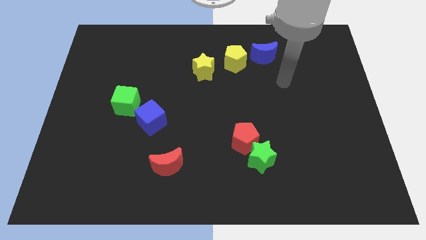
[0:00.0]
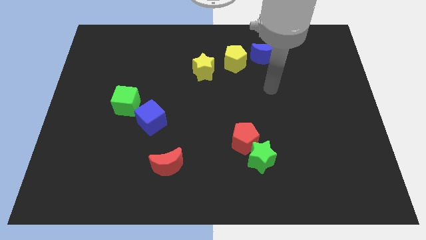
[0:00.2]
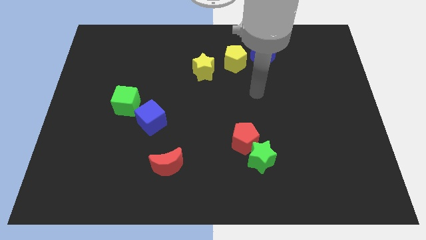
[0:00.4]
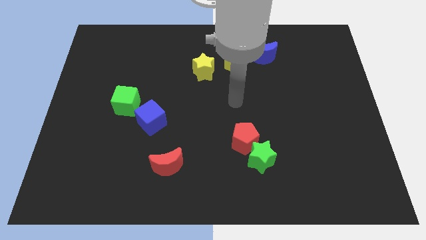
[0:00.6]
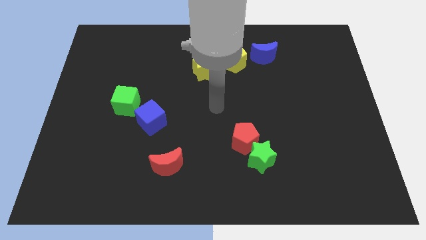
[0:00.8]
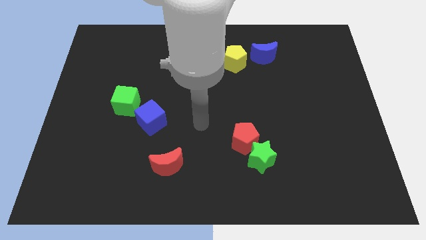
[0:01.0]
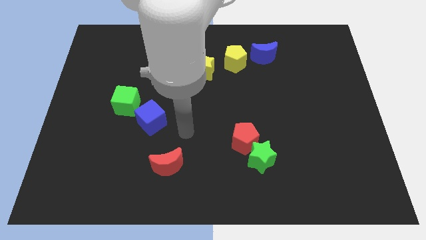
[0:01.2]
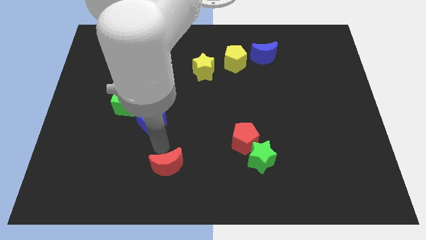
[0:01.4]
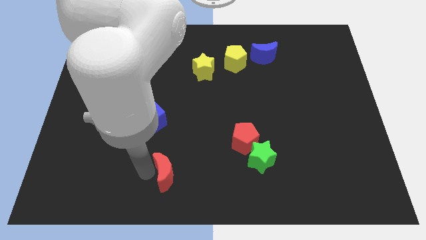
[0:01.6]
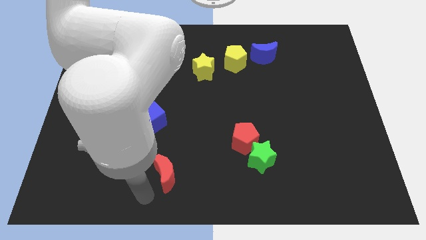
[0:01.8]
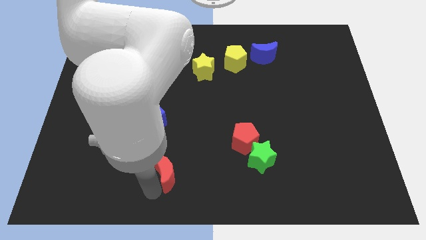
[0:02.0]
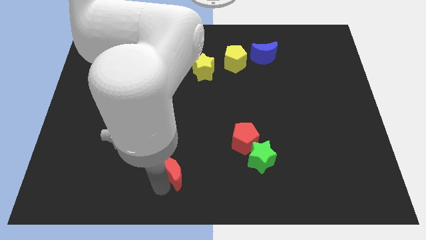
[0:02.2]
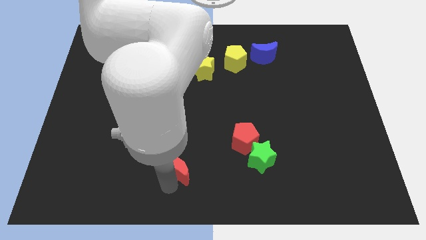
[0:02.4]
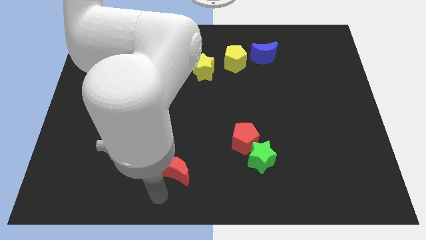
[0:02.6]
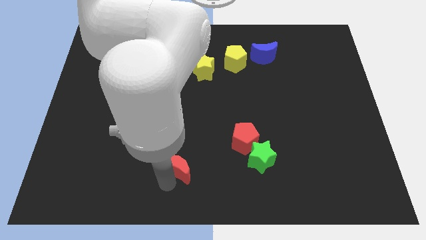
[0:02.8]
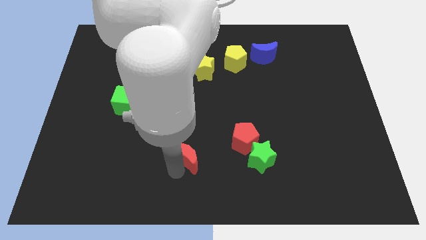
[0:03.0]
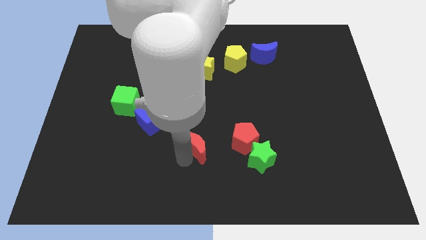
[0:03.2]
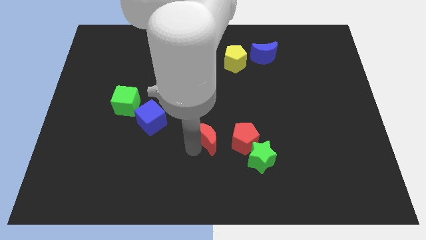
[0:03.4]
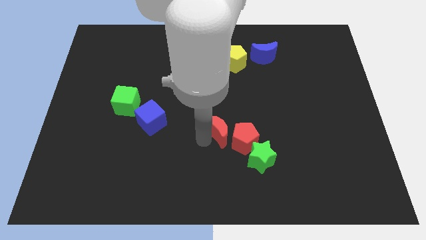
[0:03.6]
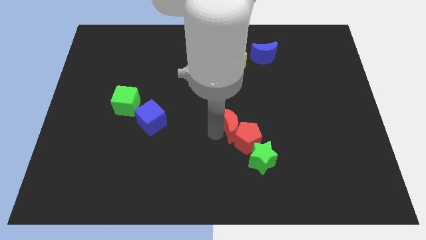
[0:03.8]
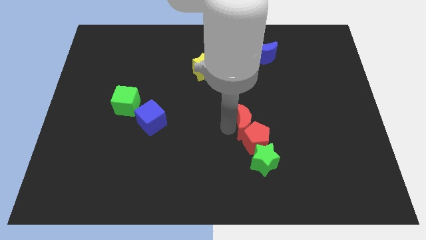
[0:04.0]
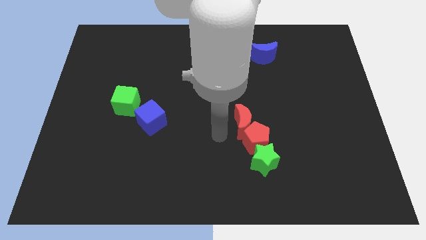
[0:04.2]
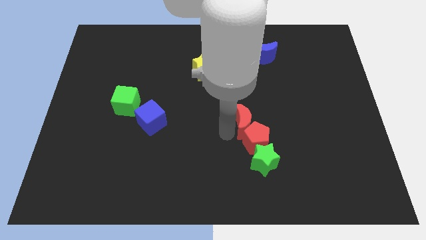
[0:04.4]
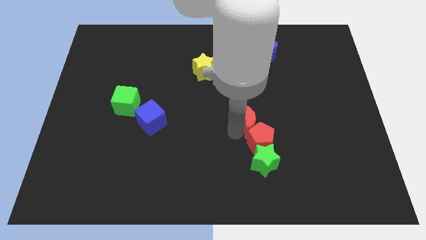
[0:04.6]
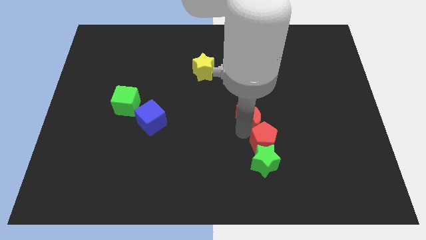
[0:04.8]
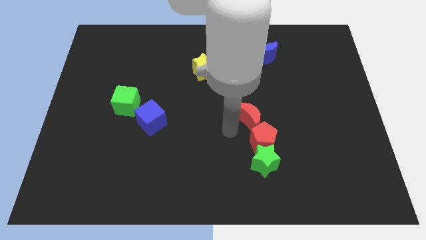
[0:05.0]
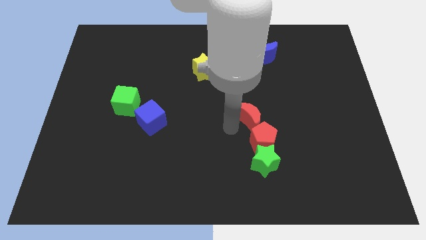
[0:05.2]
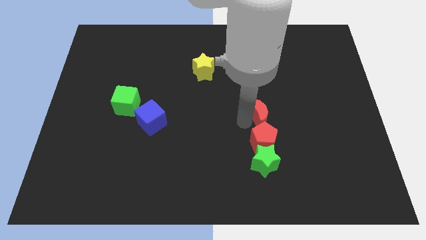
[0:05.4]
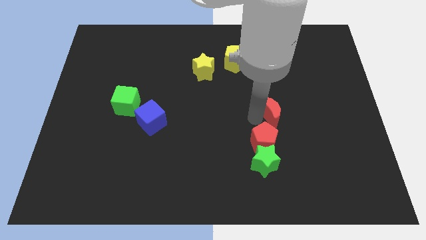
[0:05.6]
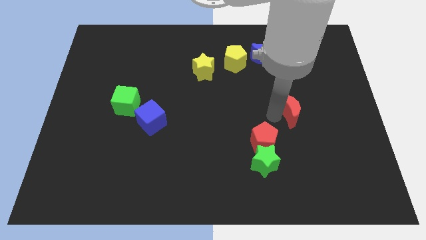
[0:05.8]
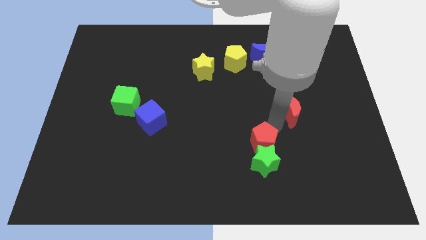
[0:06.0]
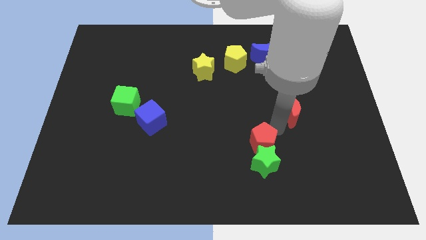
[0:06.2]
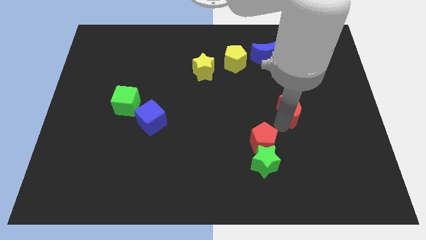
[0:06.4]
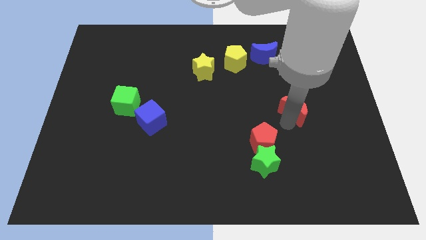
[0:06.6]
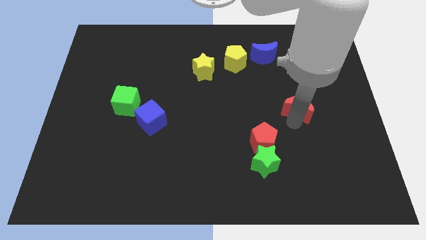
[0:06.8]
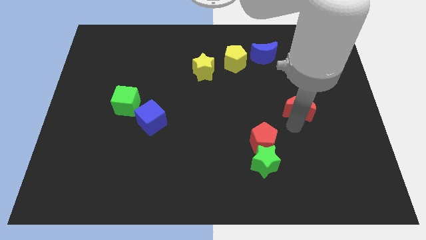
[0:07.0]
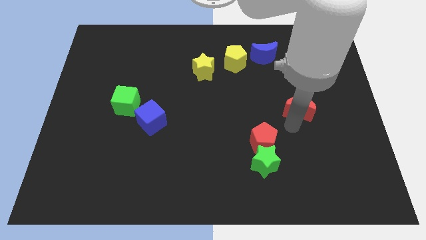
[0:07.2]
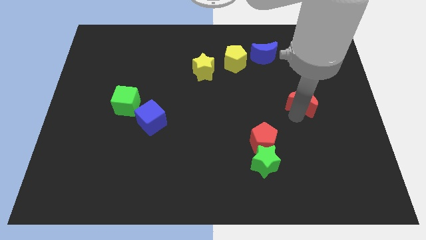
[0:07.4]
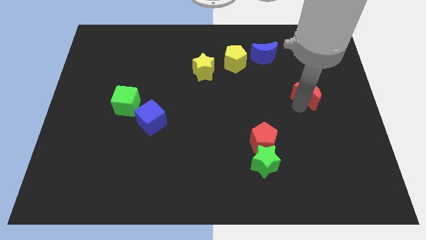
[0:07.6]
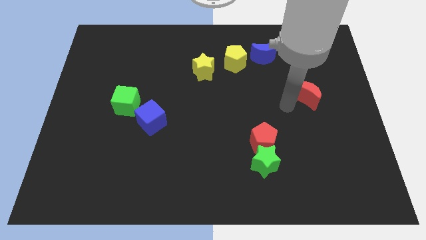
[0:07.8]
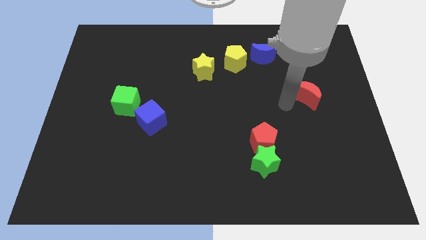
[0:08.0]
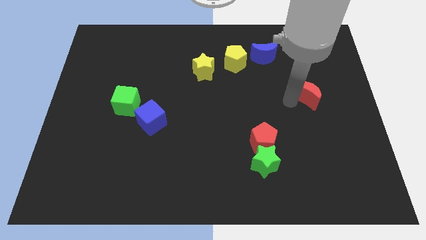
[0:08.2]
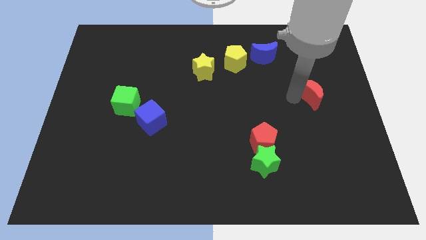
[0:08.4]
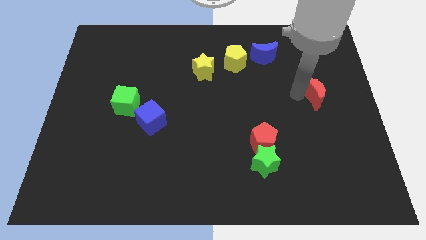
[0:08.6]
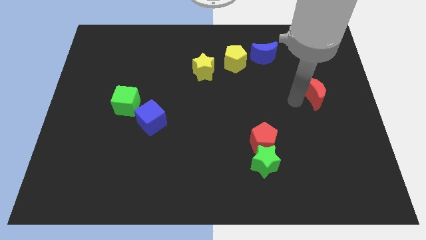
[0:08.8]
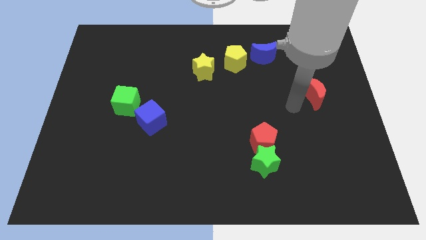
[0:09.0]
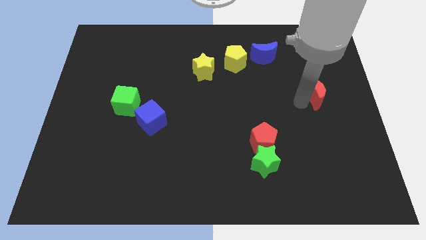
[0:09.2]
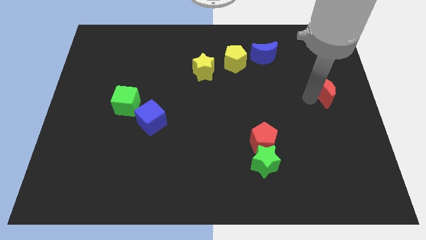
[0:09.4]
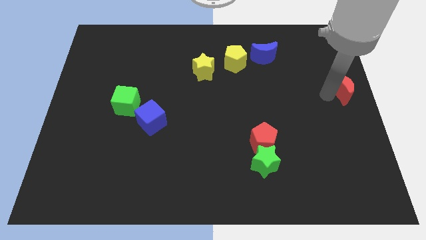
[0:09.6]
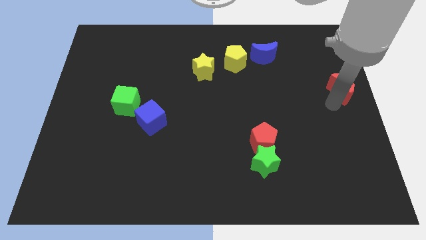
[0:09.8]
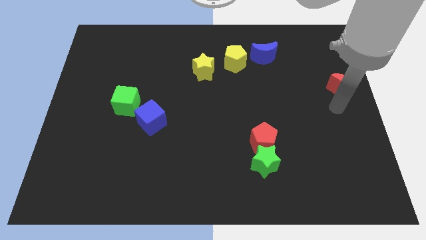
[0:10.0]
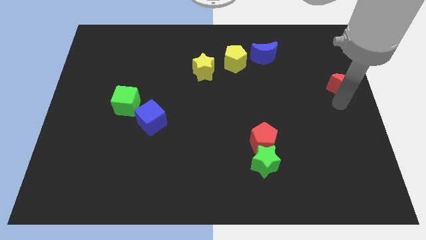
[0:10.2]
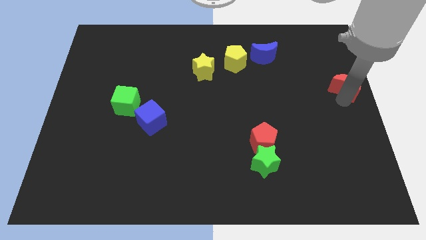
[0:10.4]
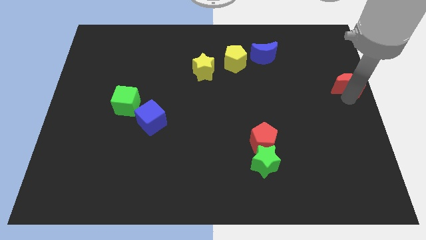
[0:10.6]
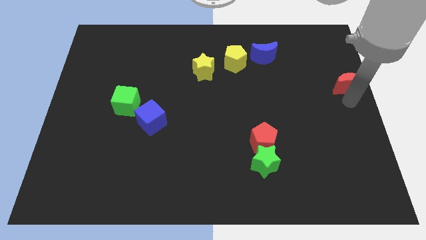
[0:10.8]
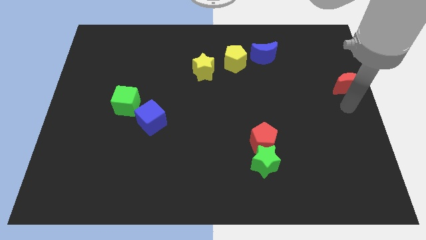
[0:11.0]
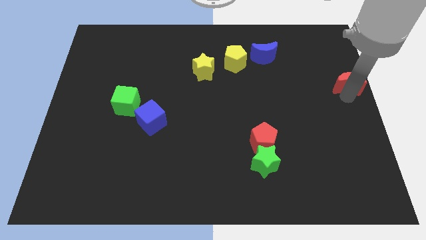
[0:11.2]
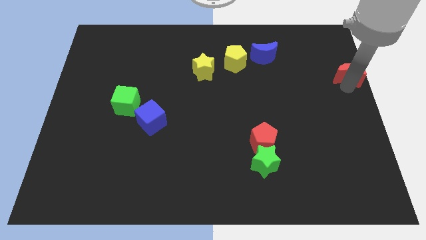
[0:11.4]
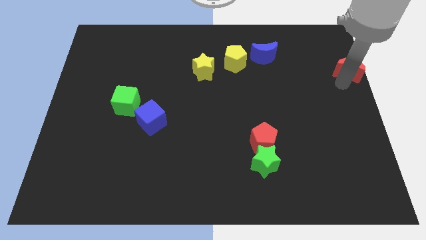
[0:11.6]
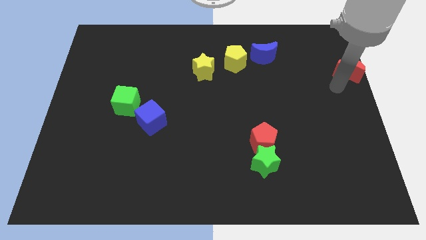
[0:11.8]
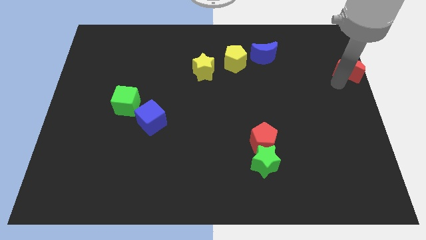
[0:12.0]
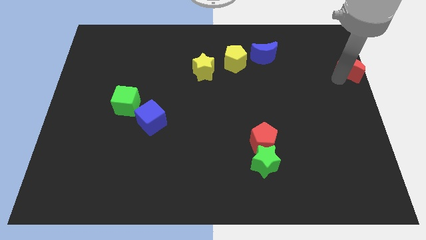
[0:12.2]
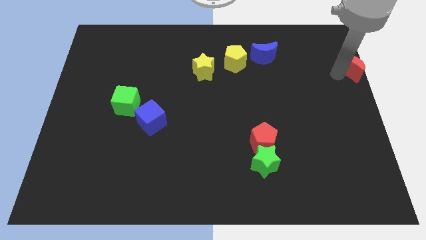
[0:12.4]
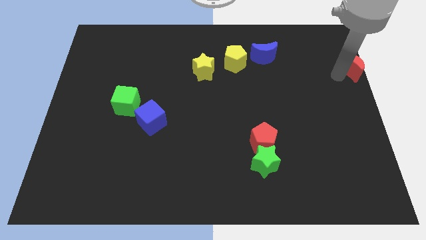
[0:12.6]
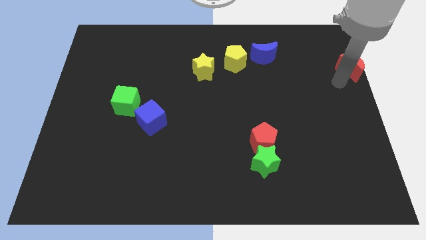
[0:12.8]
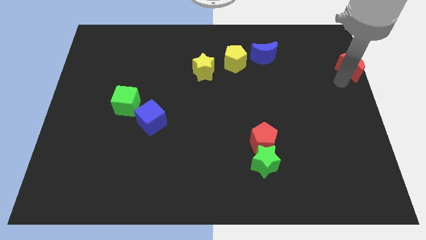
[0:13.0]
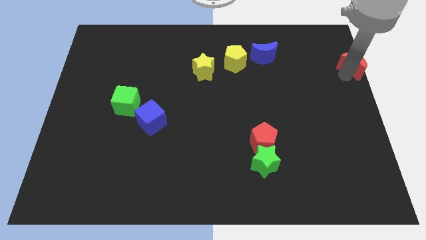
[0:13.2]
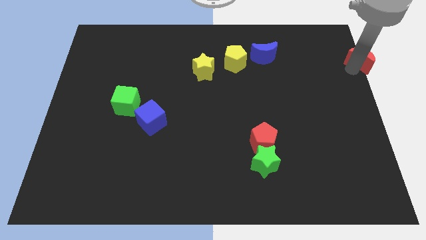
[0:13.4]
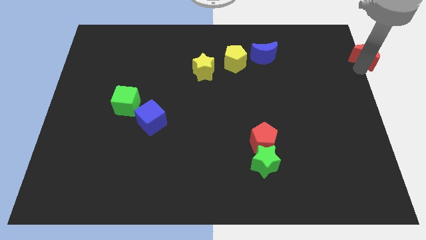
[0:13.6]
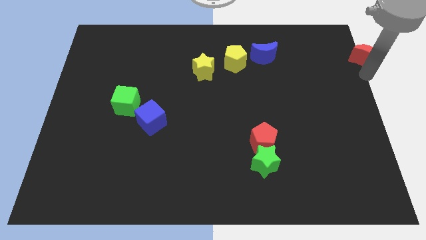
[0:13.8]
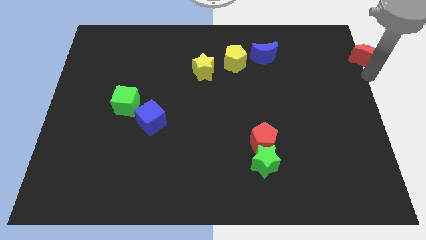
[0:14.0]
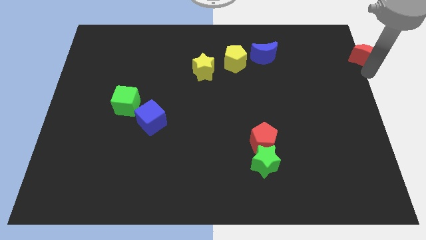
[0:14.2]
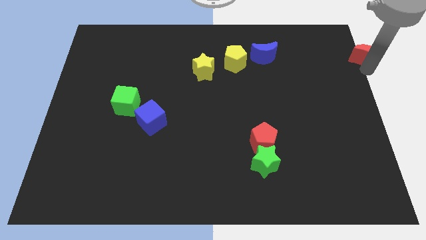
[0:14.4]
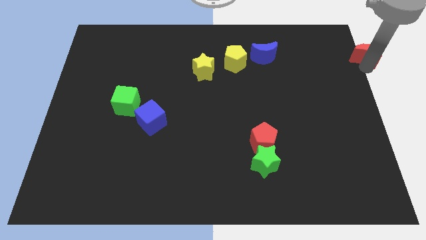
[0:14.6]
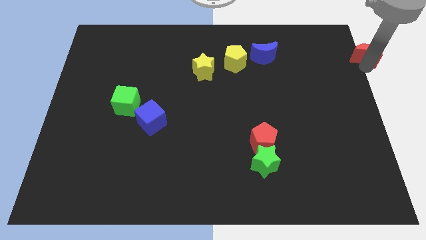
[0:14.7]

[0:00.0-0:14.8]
move the red moon to the top right of the board
